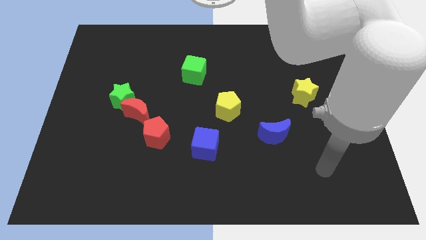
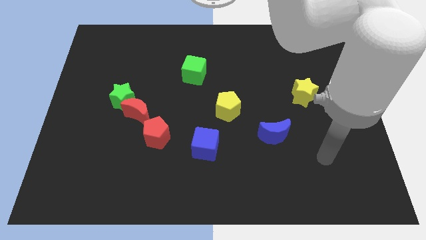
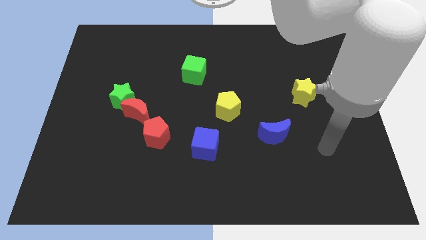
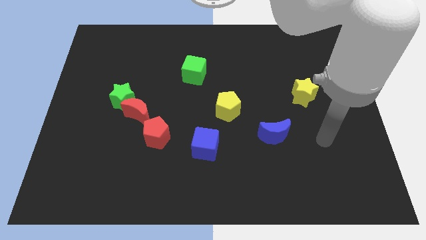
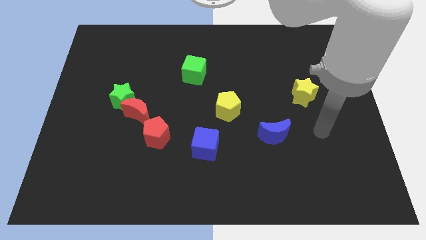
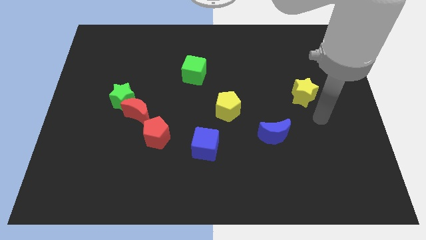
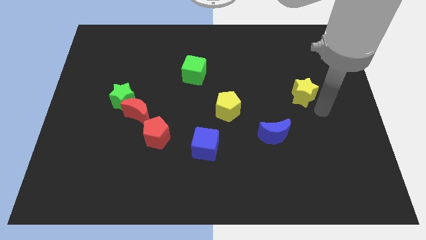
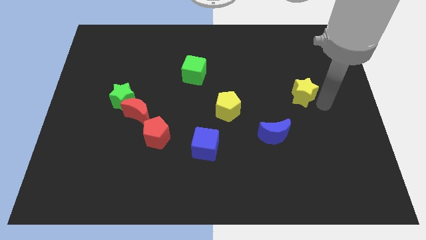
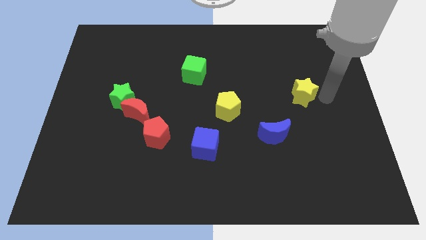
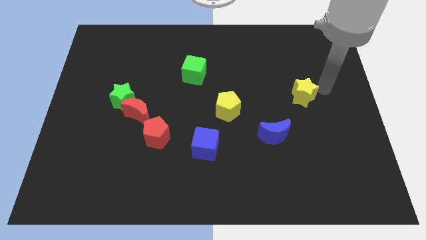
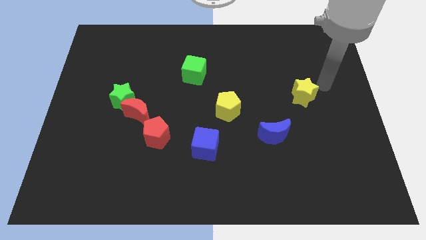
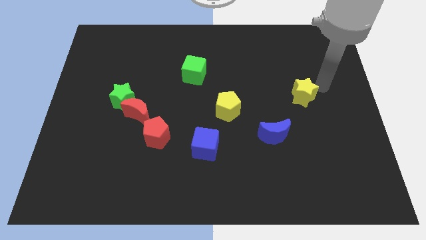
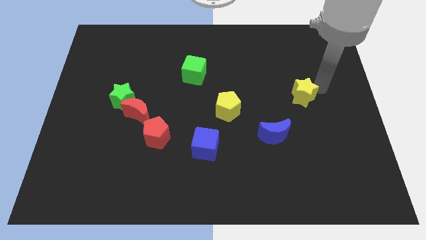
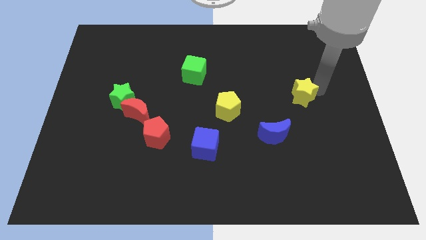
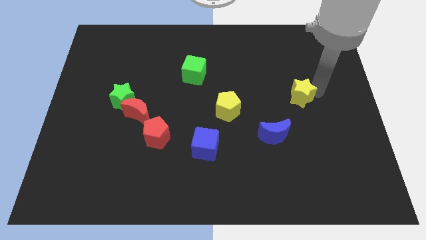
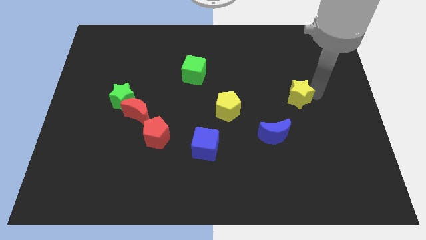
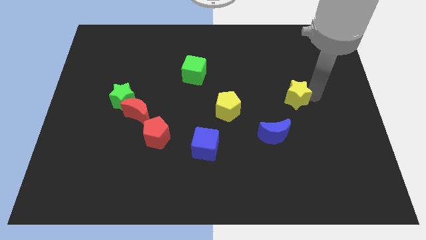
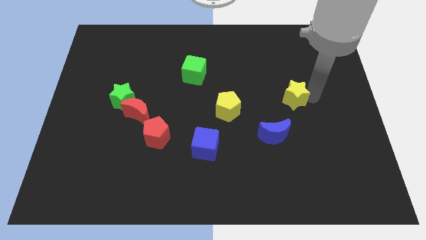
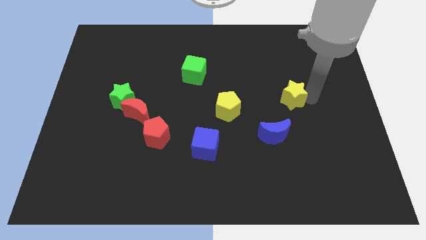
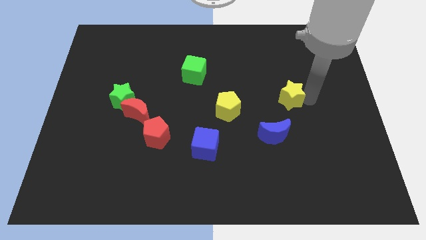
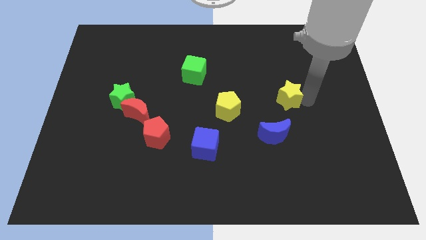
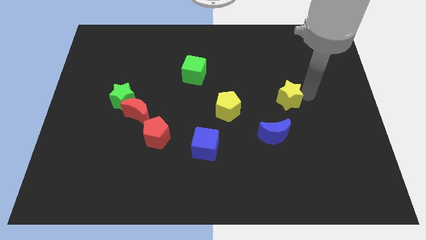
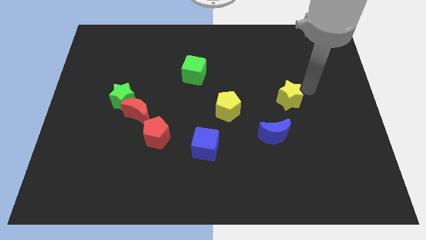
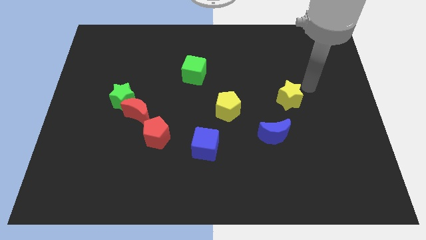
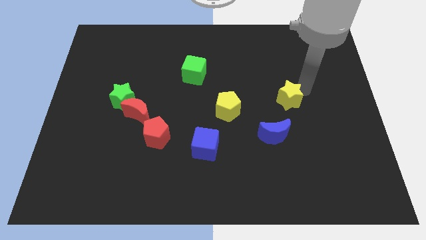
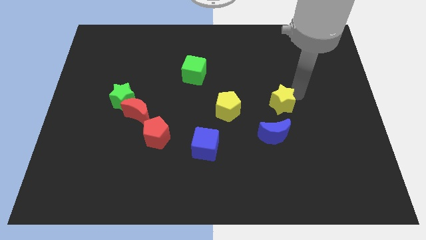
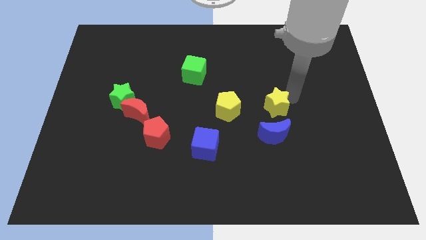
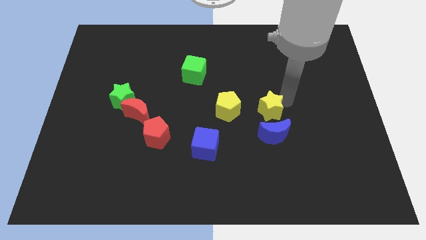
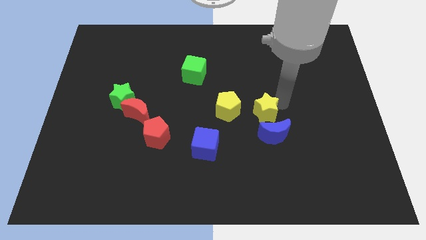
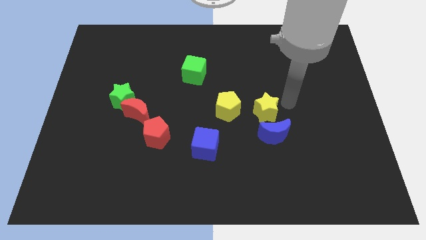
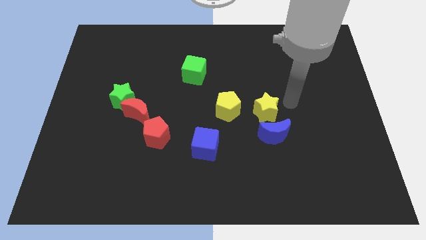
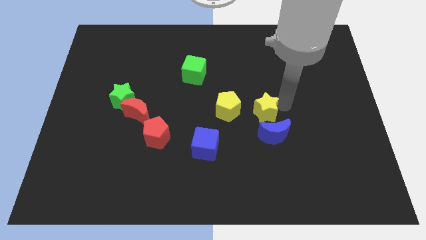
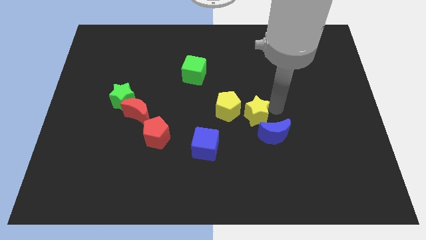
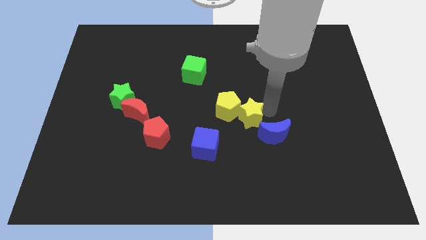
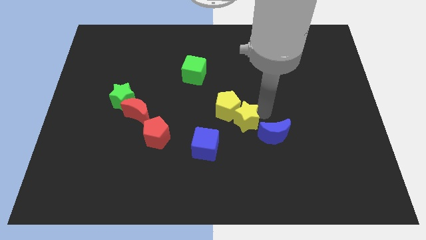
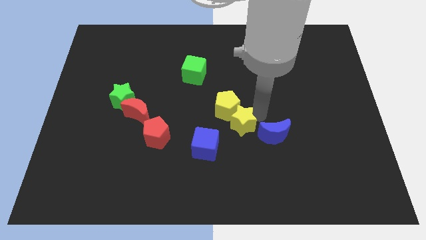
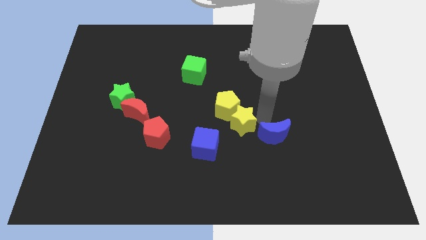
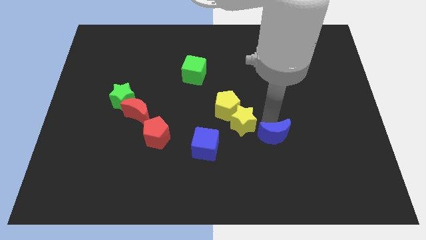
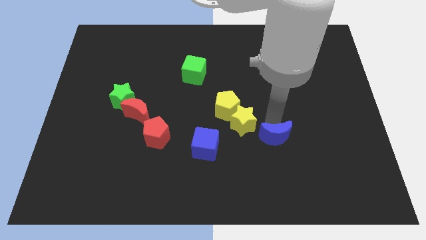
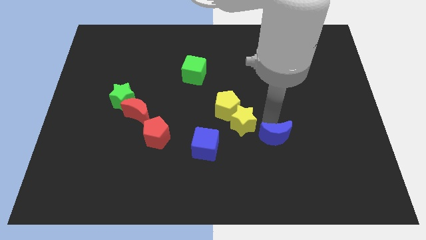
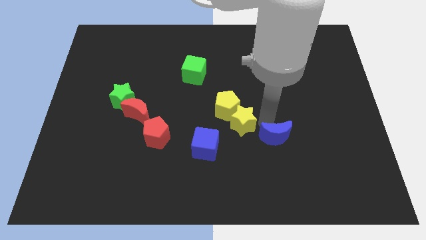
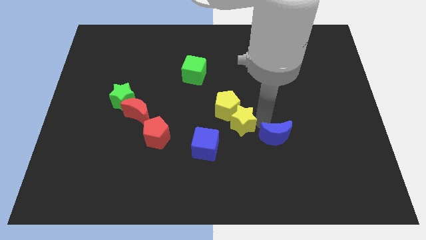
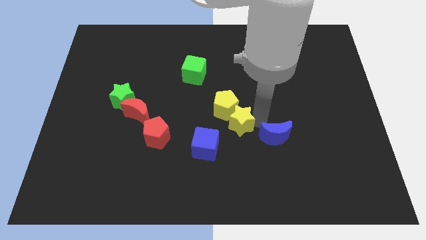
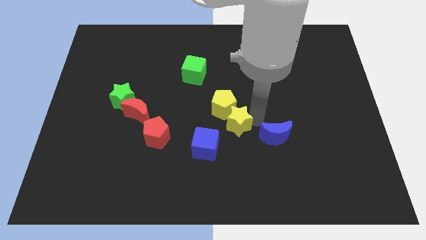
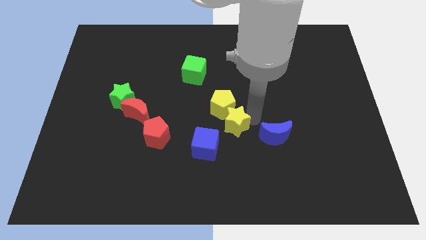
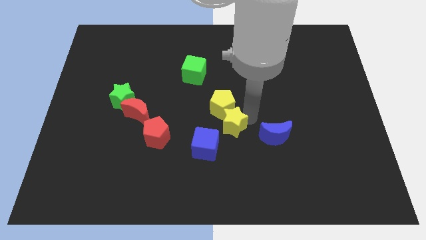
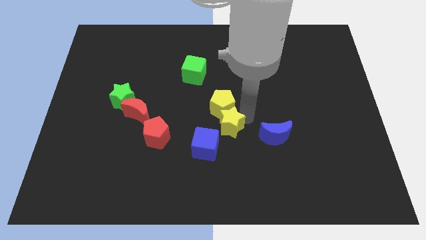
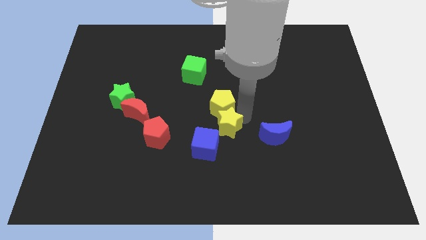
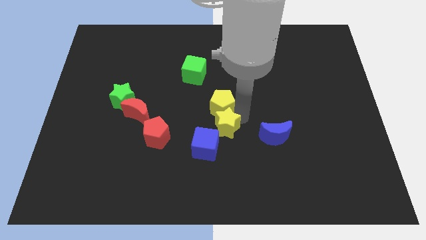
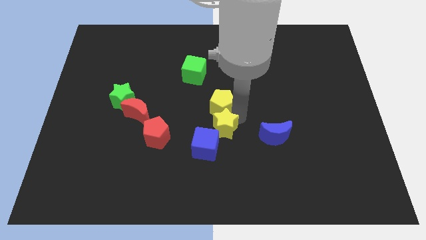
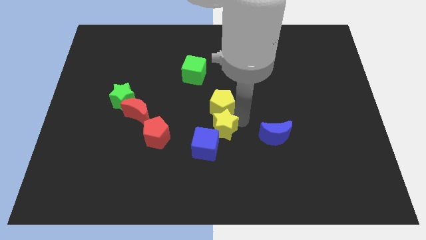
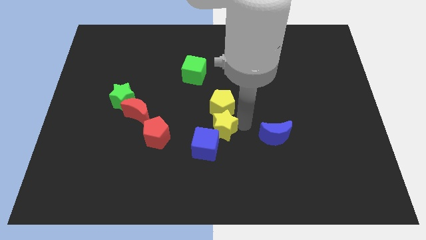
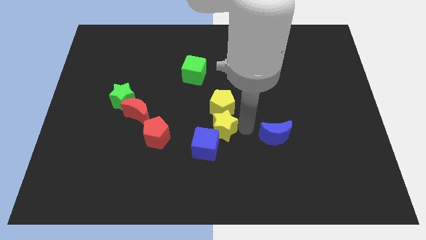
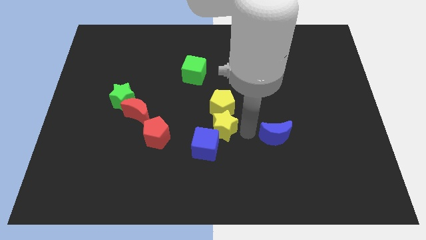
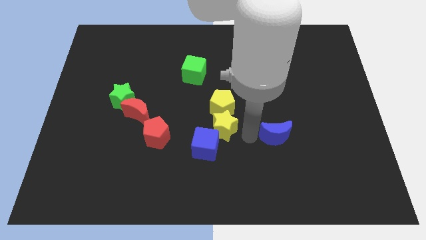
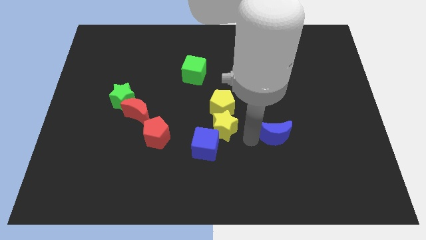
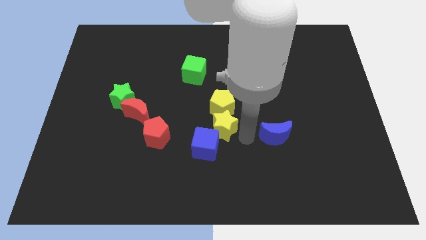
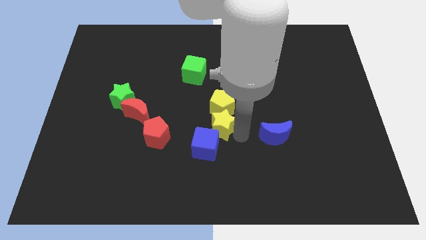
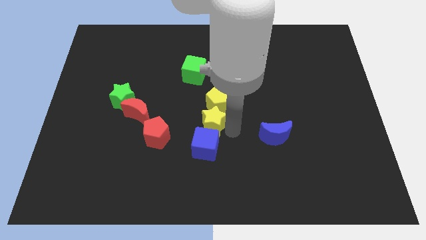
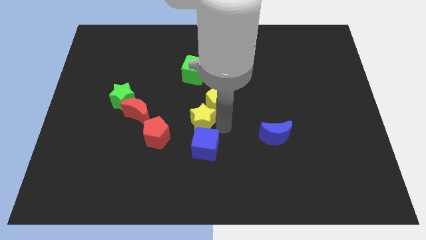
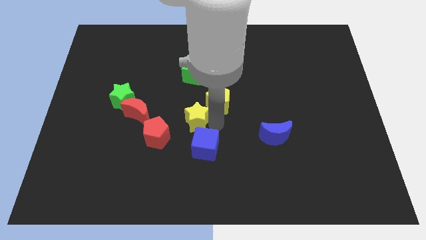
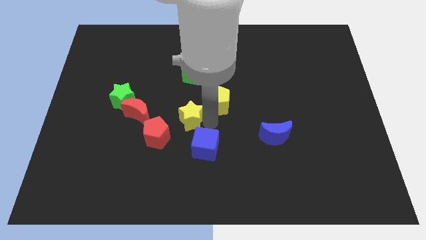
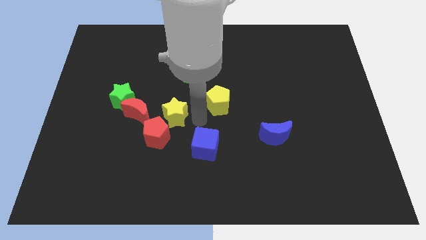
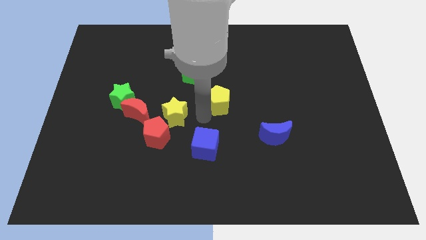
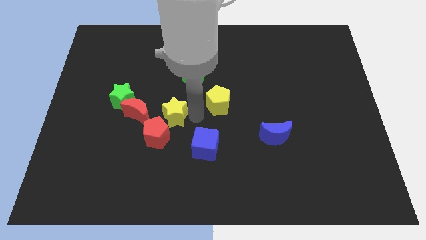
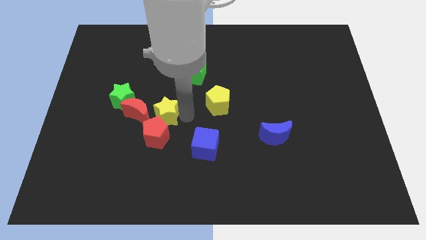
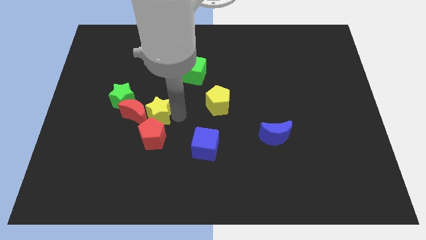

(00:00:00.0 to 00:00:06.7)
push the yellow star close to the red moon

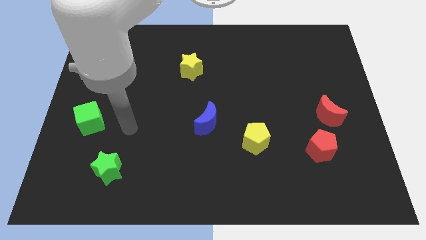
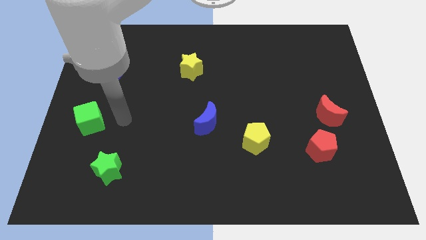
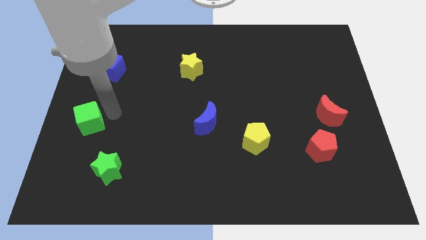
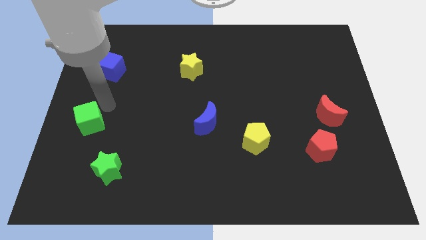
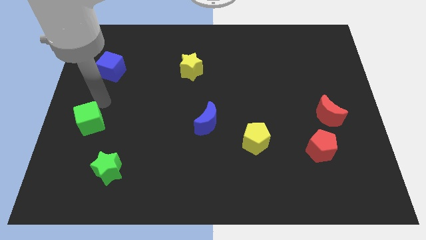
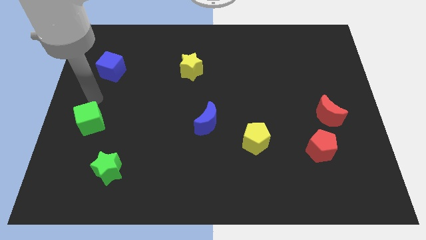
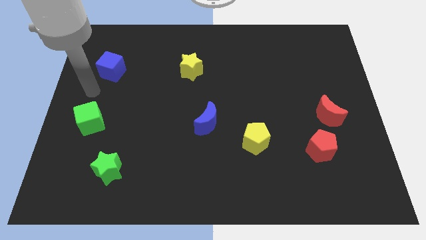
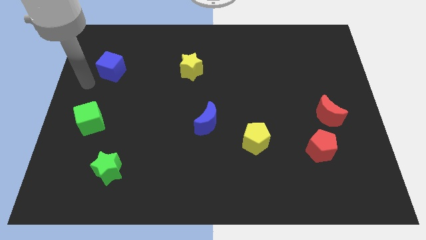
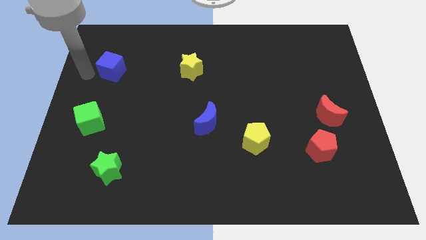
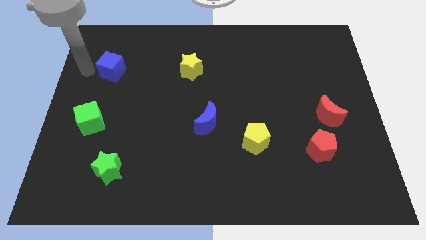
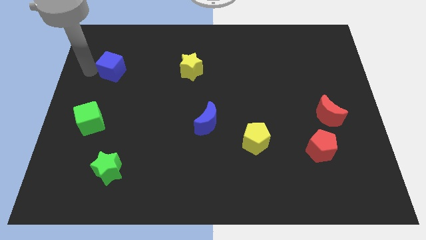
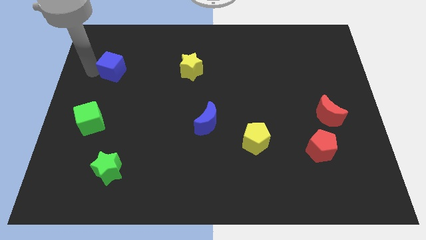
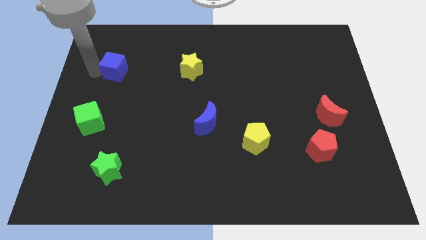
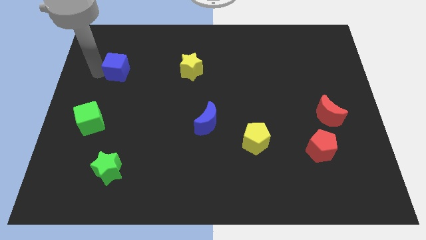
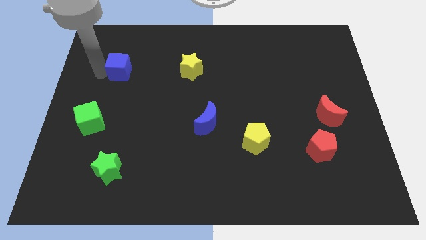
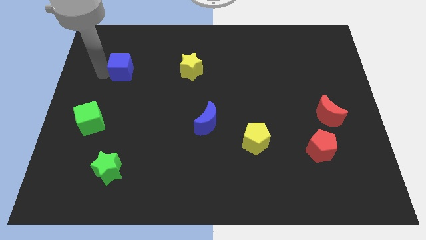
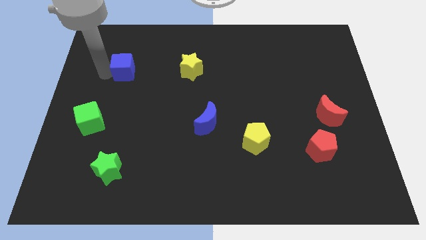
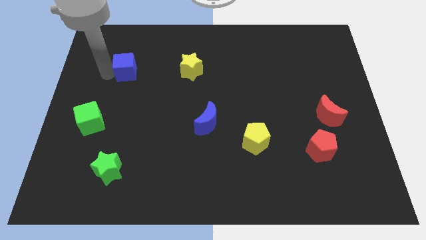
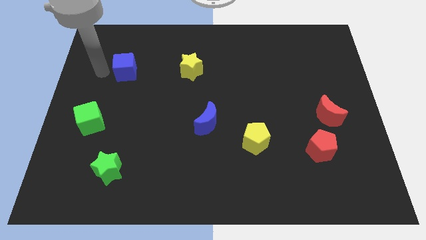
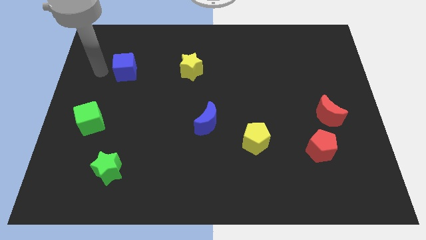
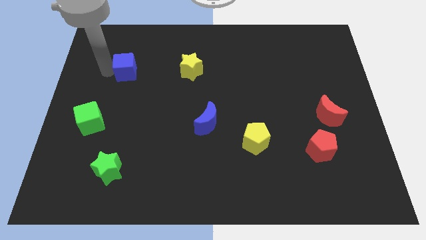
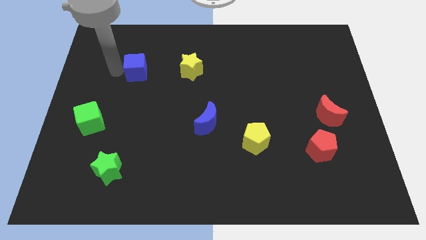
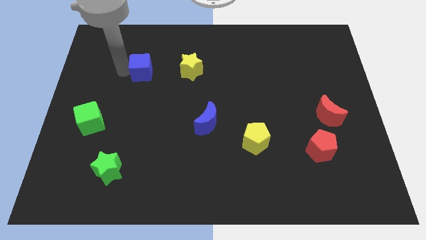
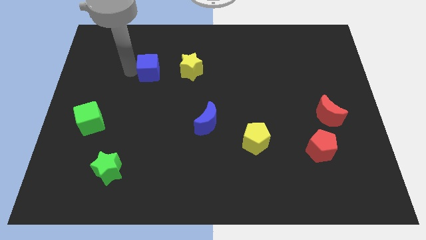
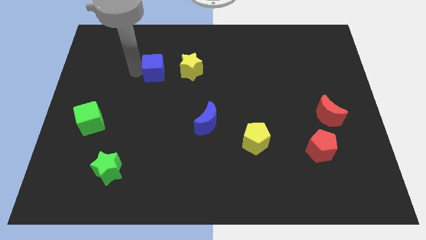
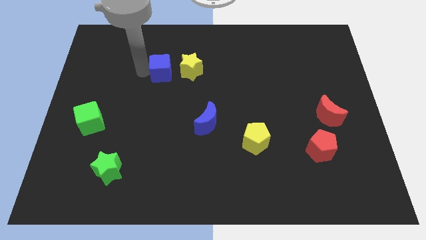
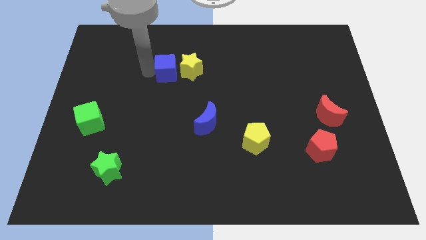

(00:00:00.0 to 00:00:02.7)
push the blue cube to the yellow star
